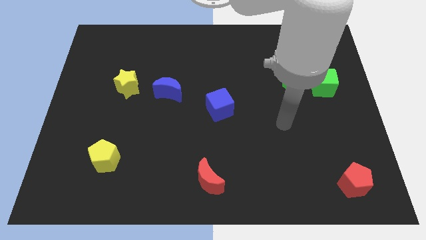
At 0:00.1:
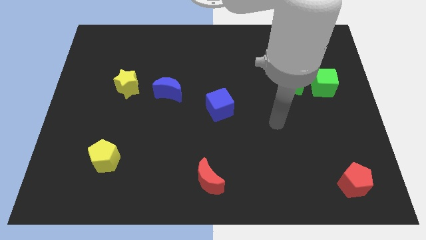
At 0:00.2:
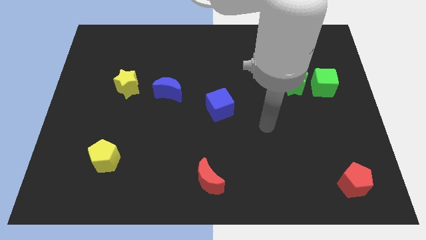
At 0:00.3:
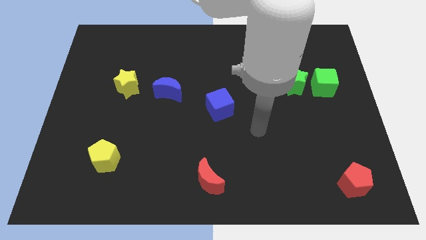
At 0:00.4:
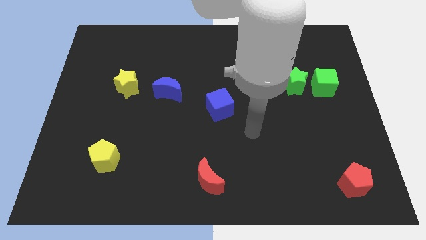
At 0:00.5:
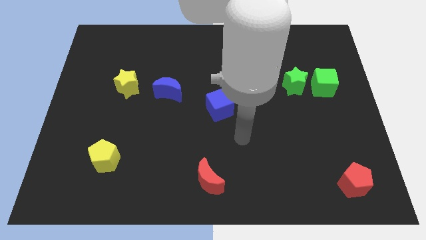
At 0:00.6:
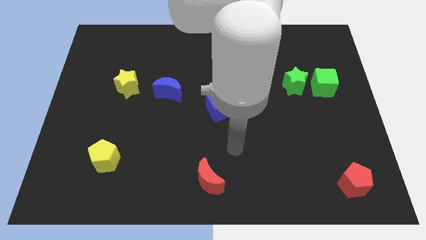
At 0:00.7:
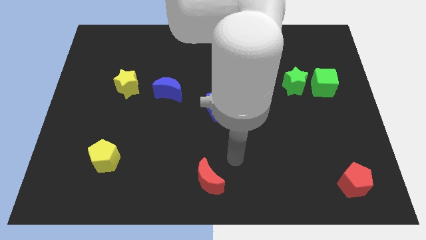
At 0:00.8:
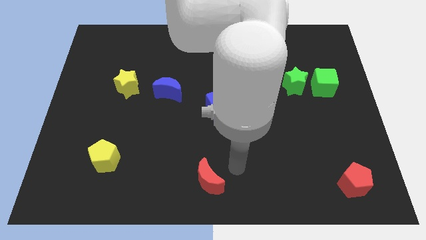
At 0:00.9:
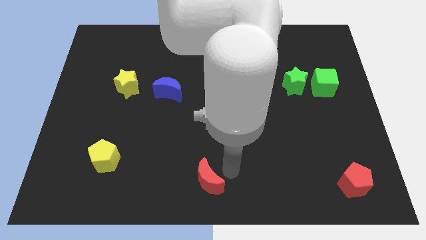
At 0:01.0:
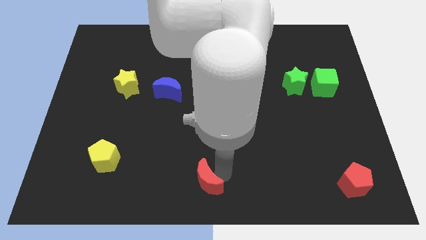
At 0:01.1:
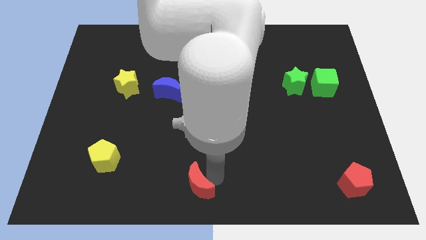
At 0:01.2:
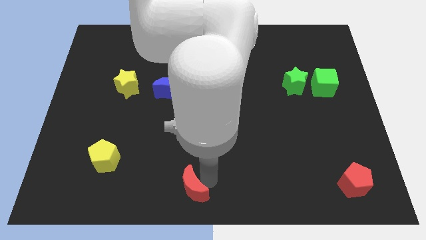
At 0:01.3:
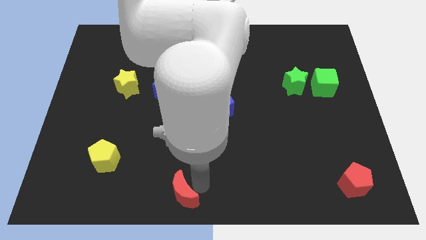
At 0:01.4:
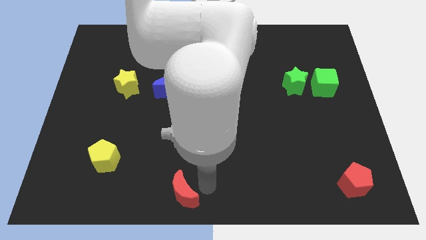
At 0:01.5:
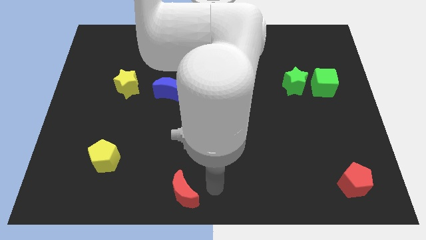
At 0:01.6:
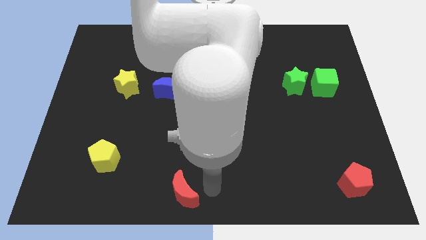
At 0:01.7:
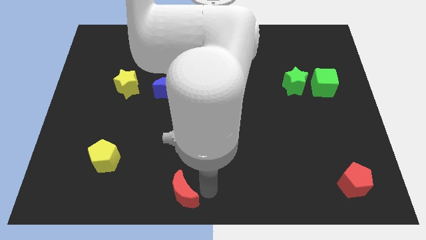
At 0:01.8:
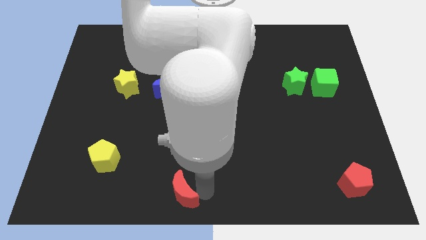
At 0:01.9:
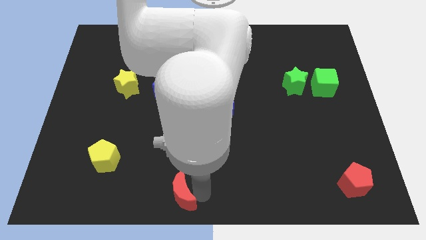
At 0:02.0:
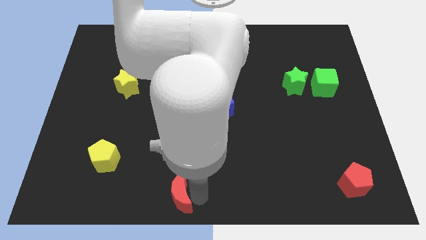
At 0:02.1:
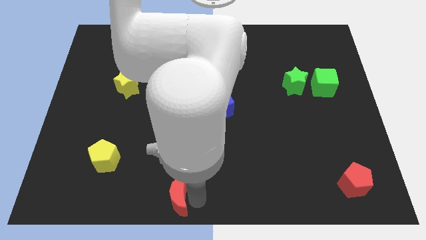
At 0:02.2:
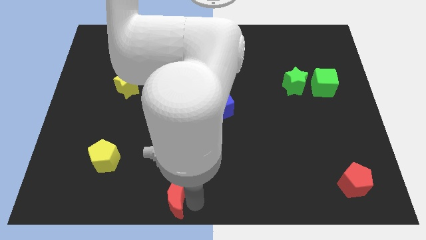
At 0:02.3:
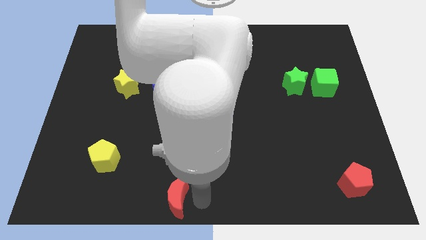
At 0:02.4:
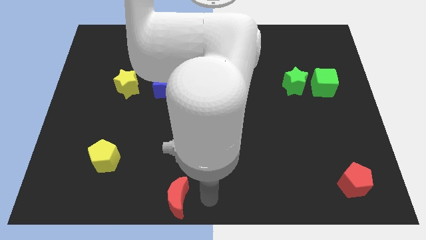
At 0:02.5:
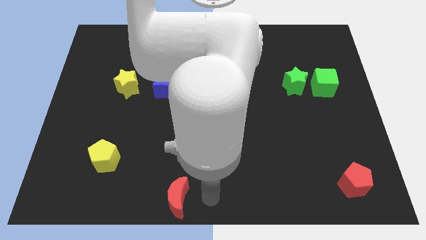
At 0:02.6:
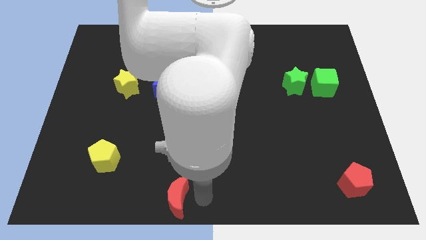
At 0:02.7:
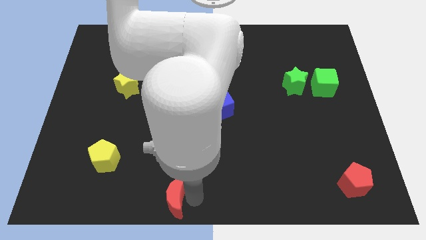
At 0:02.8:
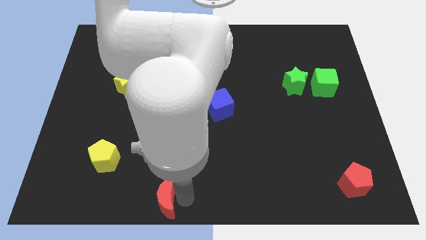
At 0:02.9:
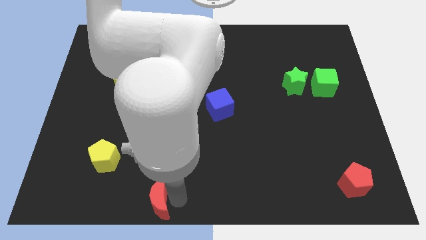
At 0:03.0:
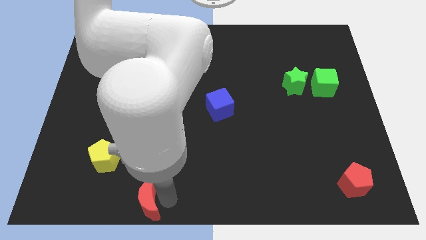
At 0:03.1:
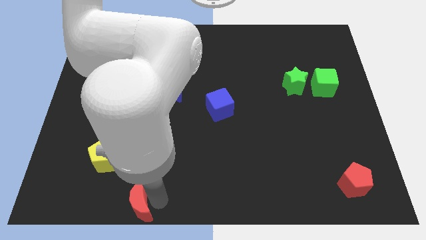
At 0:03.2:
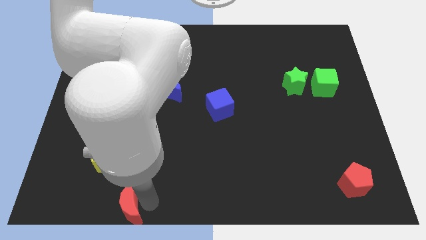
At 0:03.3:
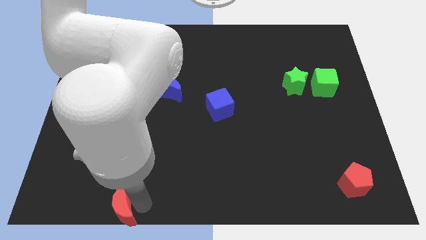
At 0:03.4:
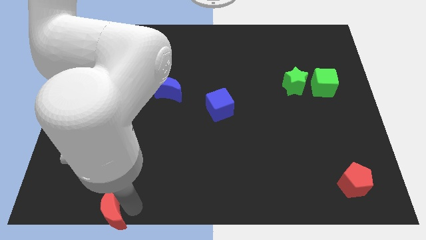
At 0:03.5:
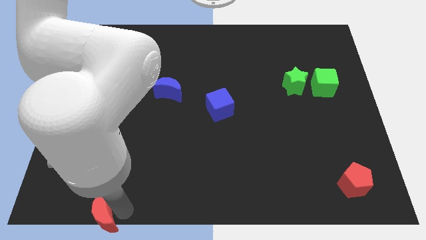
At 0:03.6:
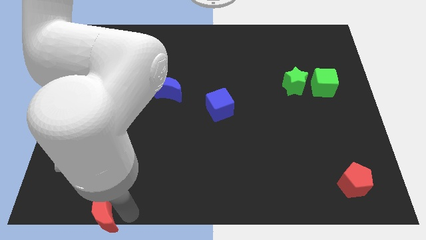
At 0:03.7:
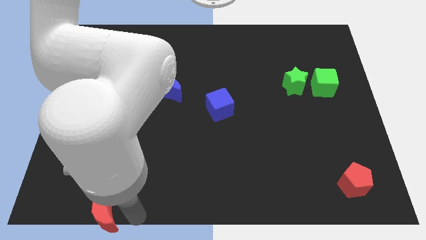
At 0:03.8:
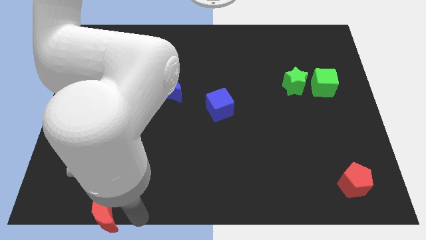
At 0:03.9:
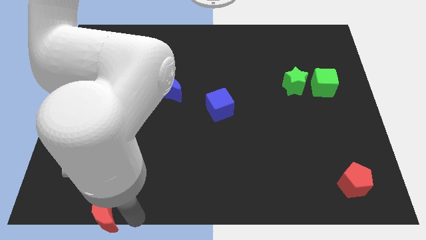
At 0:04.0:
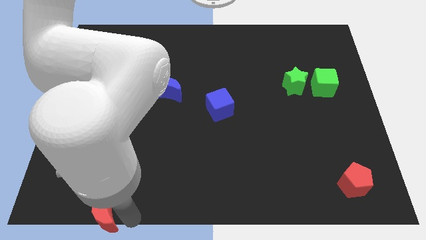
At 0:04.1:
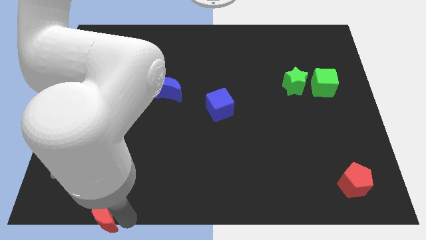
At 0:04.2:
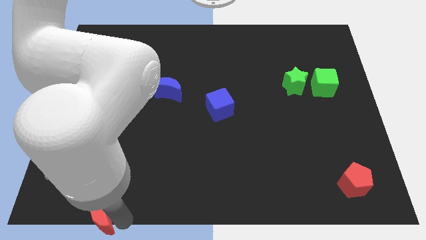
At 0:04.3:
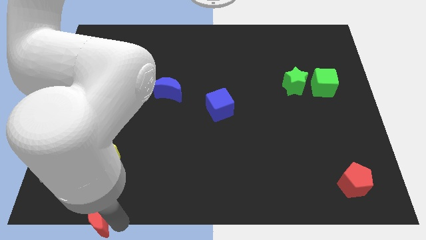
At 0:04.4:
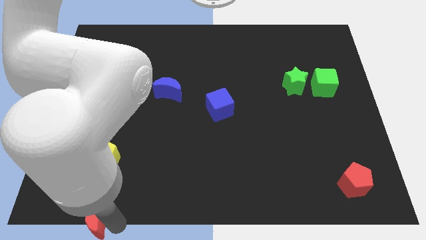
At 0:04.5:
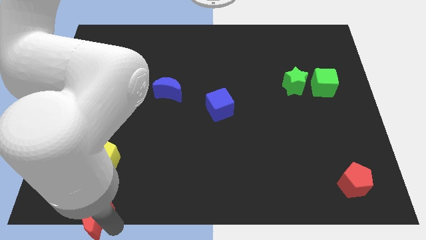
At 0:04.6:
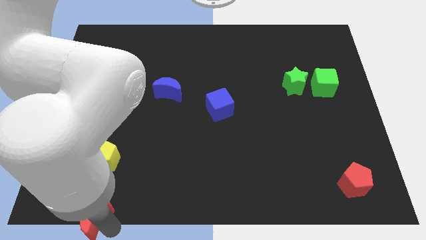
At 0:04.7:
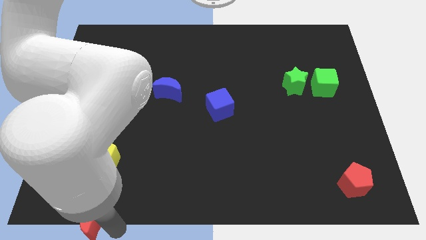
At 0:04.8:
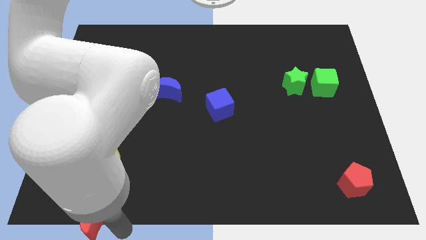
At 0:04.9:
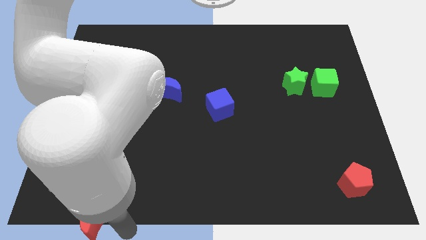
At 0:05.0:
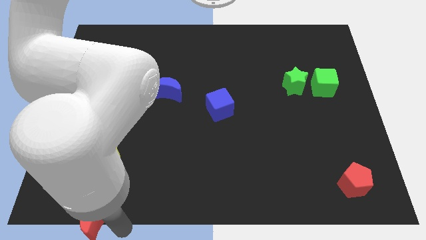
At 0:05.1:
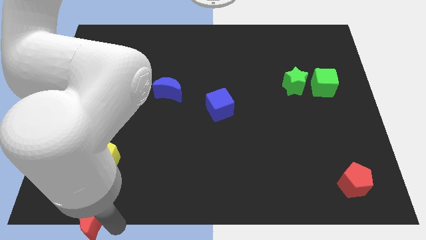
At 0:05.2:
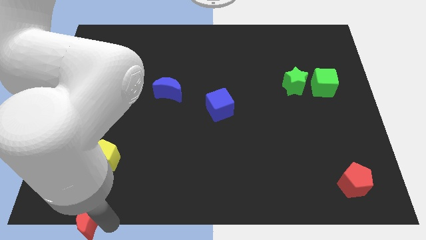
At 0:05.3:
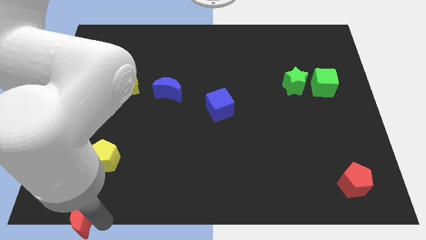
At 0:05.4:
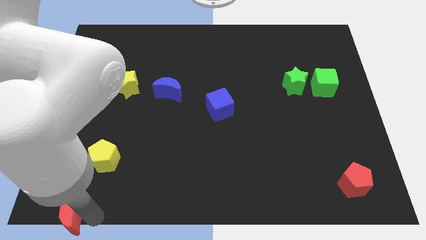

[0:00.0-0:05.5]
slide the red moon to the bottom left

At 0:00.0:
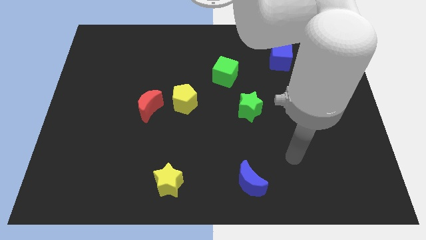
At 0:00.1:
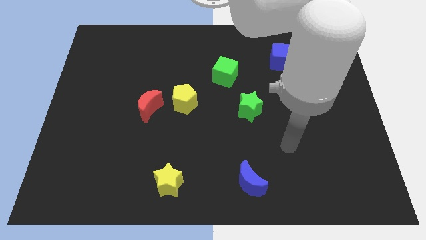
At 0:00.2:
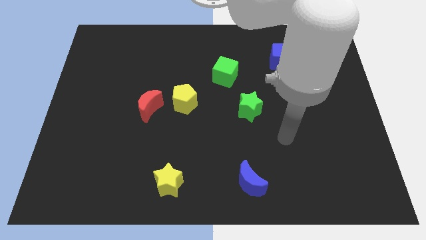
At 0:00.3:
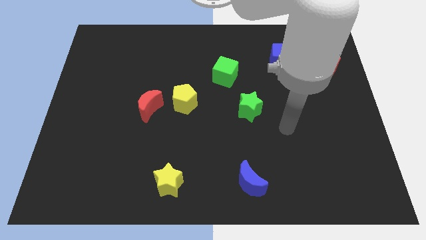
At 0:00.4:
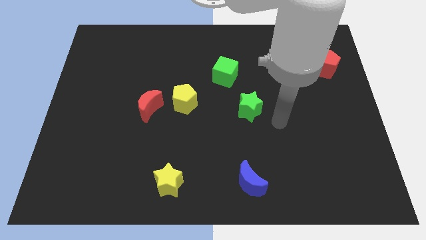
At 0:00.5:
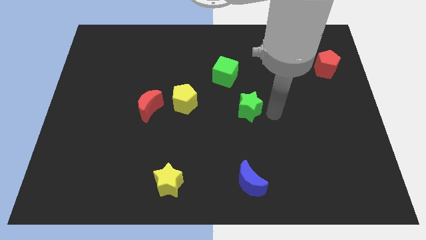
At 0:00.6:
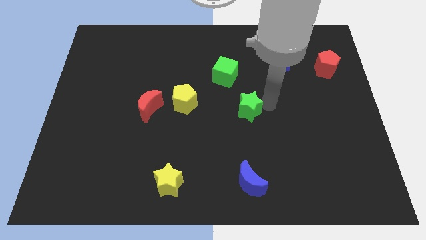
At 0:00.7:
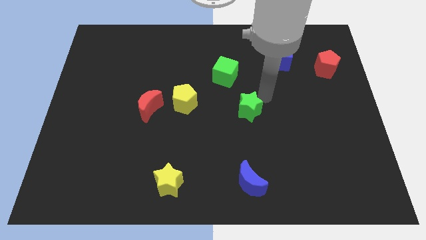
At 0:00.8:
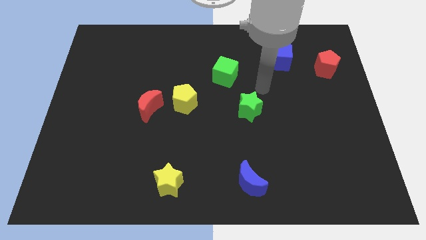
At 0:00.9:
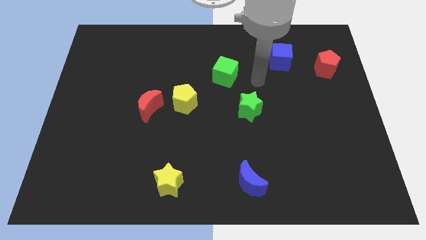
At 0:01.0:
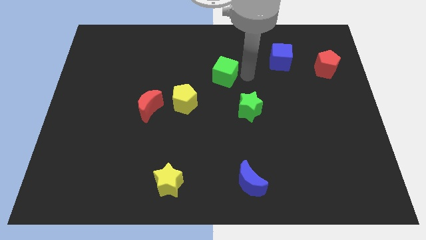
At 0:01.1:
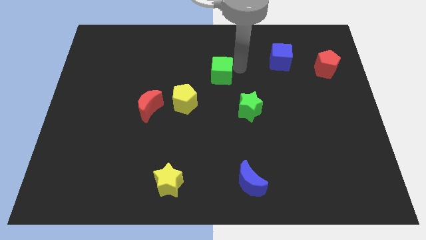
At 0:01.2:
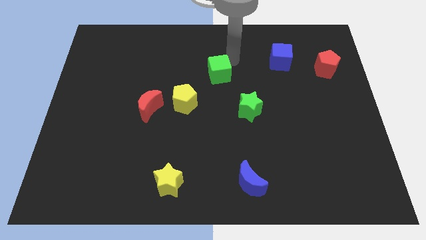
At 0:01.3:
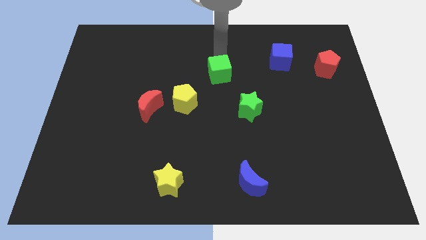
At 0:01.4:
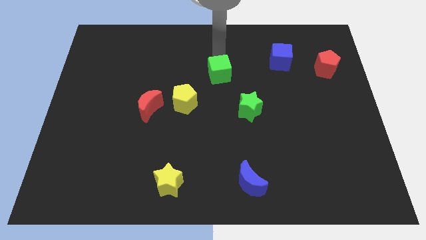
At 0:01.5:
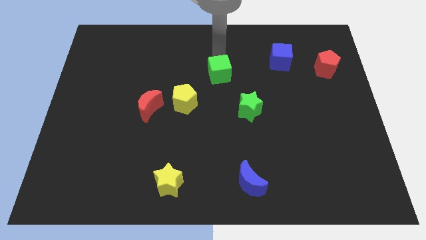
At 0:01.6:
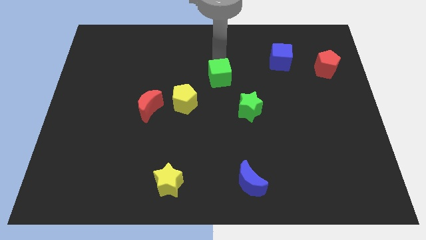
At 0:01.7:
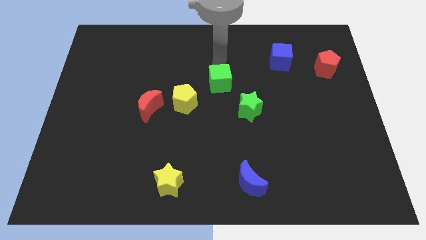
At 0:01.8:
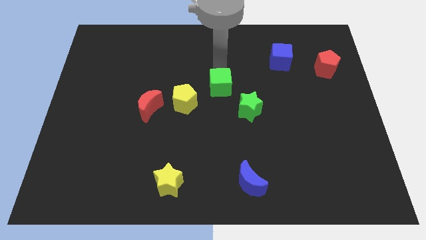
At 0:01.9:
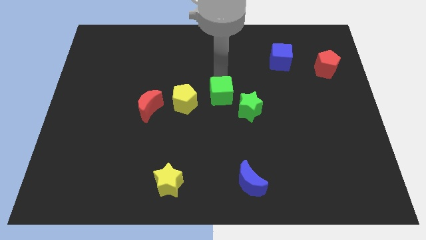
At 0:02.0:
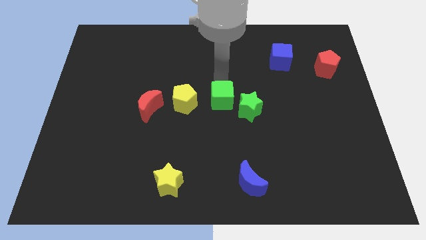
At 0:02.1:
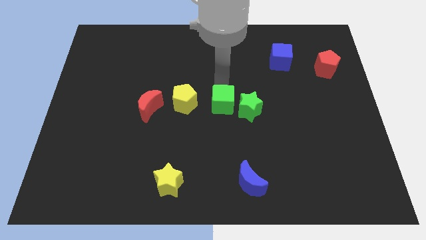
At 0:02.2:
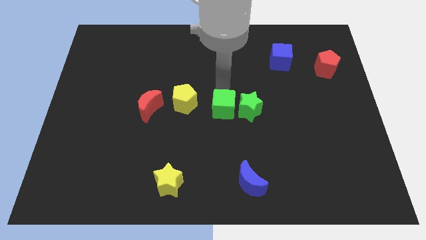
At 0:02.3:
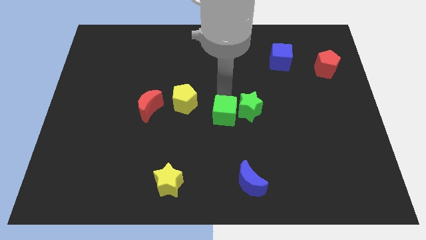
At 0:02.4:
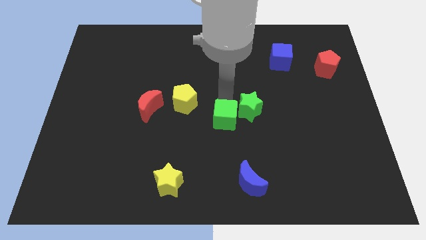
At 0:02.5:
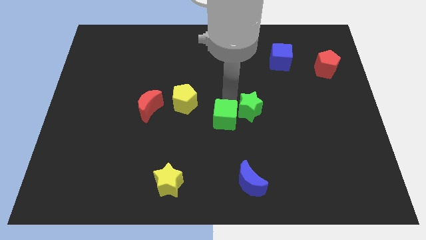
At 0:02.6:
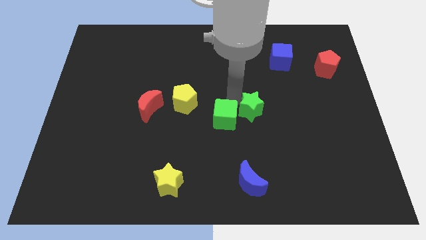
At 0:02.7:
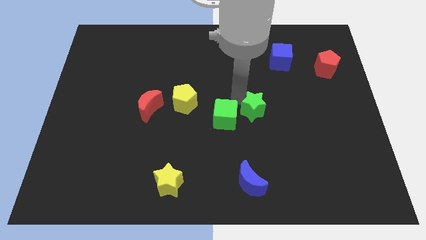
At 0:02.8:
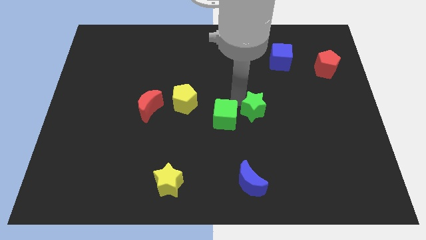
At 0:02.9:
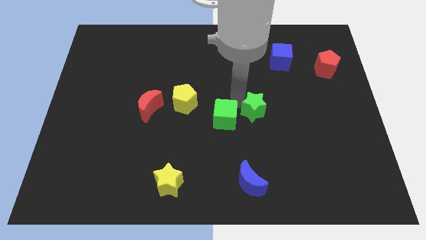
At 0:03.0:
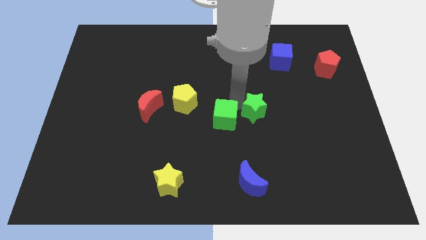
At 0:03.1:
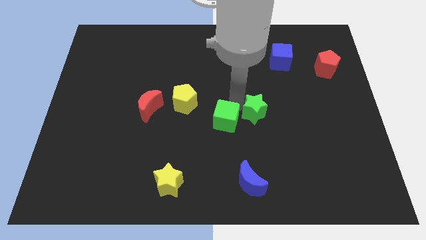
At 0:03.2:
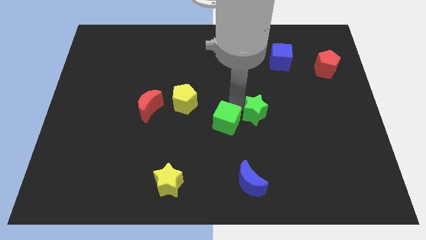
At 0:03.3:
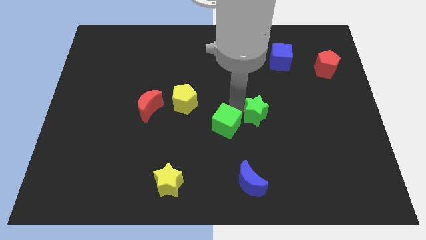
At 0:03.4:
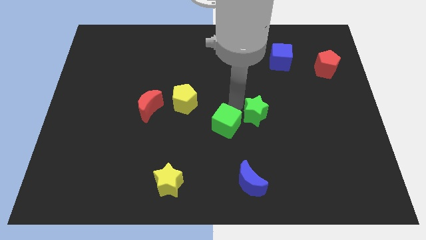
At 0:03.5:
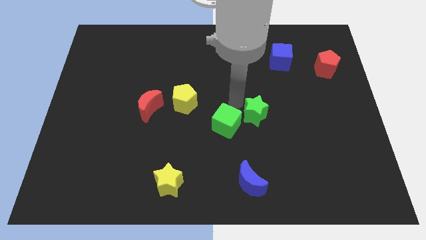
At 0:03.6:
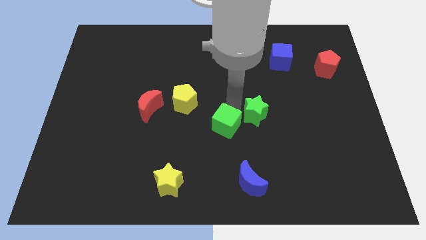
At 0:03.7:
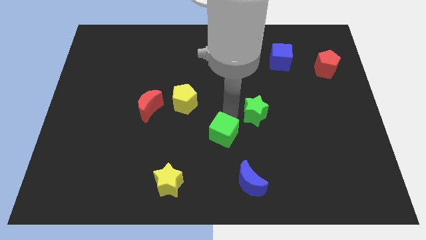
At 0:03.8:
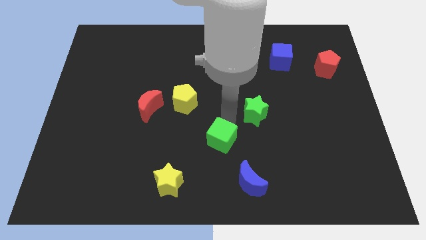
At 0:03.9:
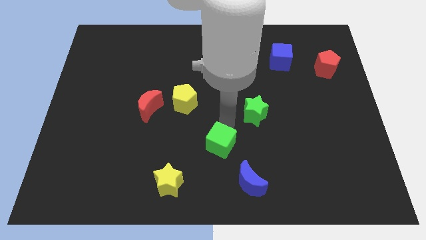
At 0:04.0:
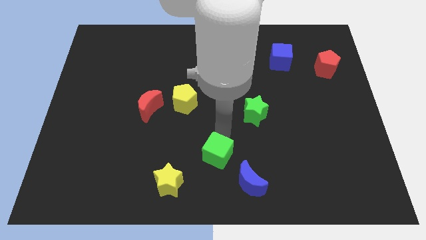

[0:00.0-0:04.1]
push the green cube to the bottom
